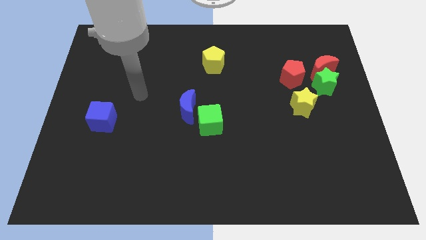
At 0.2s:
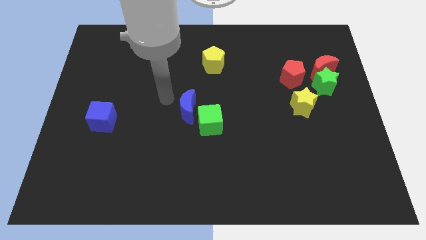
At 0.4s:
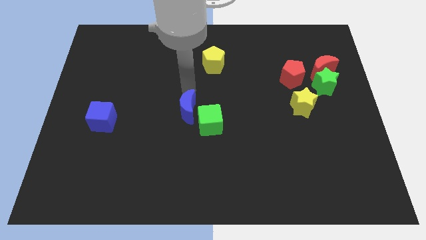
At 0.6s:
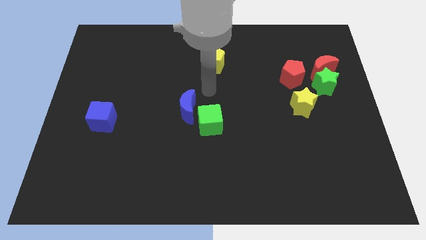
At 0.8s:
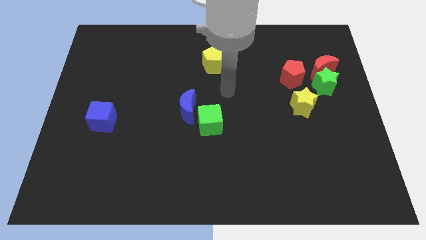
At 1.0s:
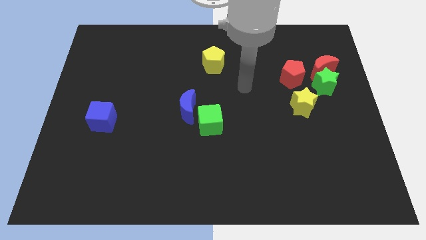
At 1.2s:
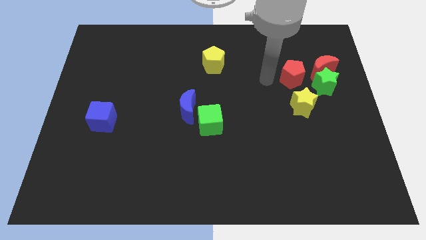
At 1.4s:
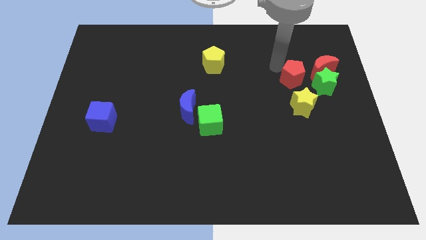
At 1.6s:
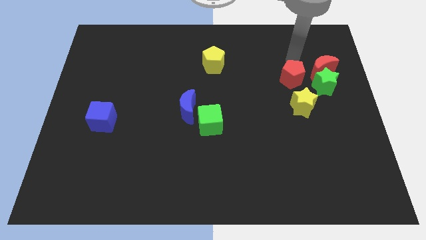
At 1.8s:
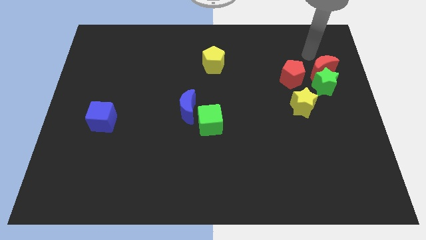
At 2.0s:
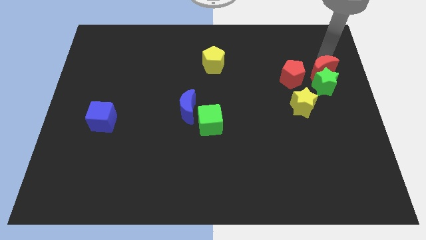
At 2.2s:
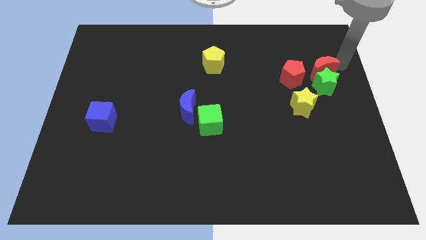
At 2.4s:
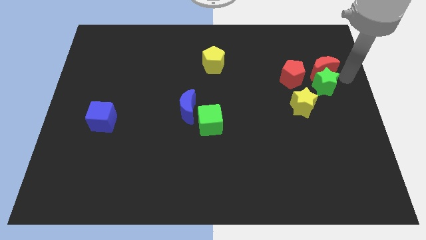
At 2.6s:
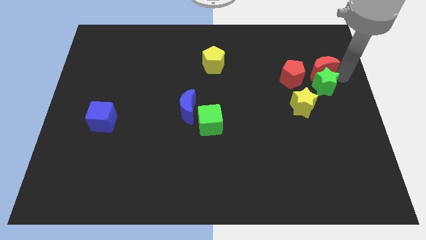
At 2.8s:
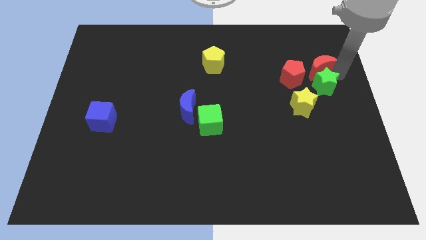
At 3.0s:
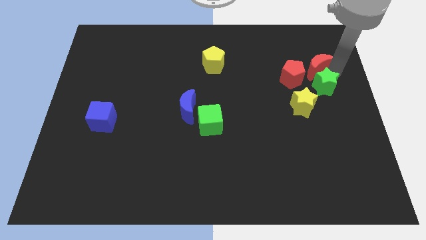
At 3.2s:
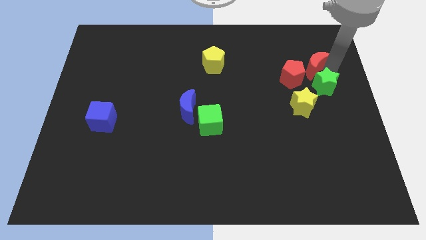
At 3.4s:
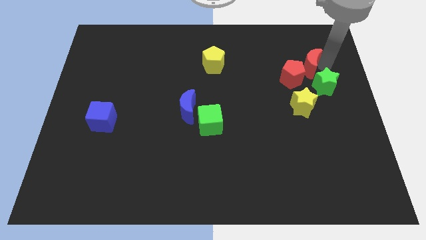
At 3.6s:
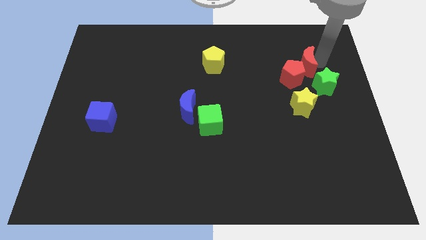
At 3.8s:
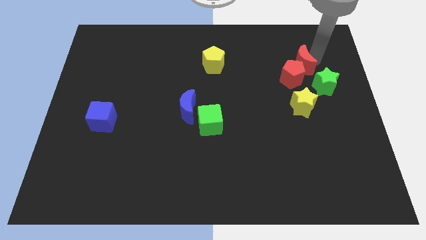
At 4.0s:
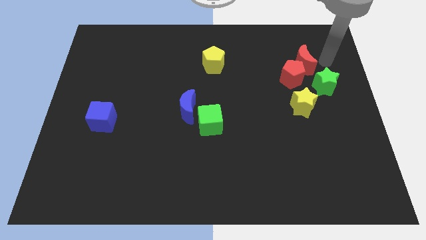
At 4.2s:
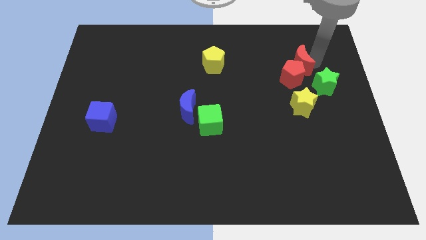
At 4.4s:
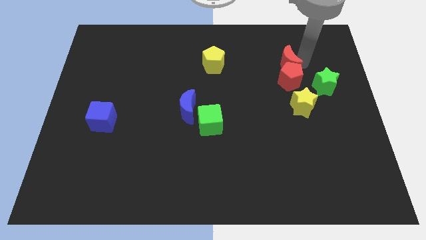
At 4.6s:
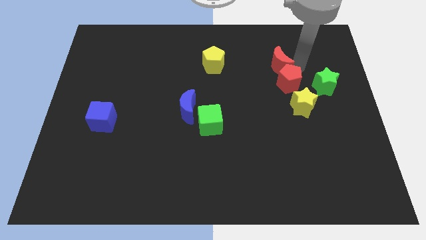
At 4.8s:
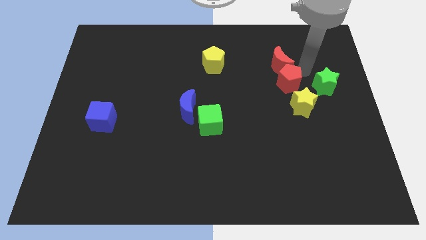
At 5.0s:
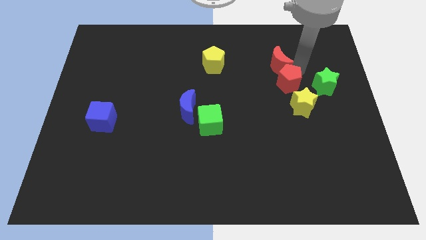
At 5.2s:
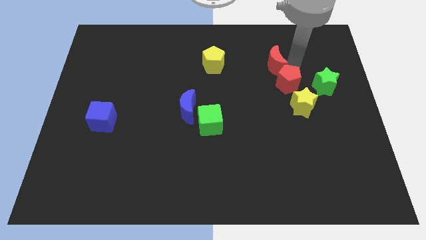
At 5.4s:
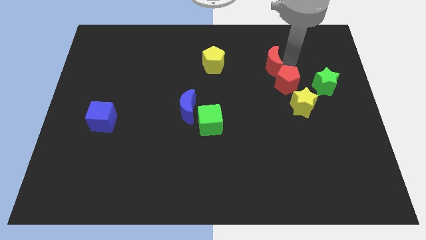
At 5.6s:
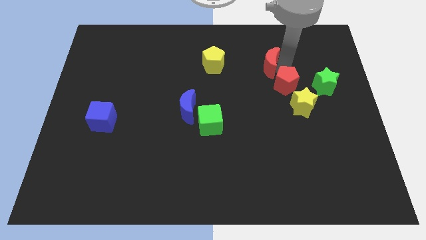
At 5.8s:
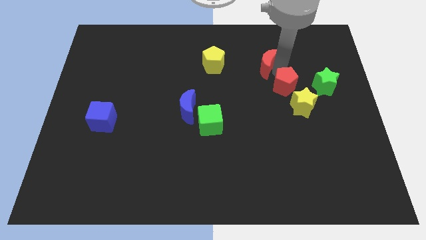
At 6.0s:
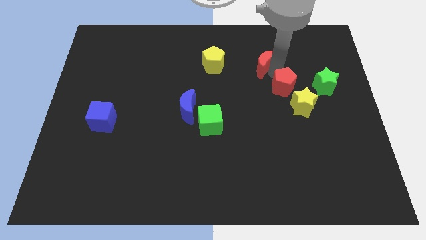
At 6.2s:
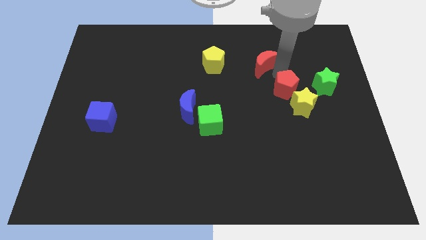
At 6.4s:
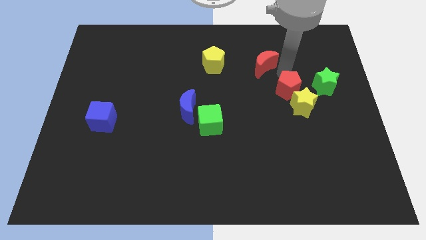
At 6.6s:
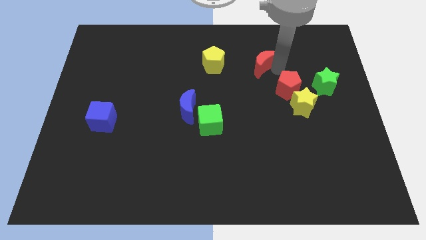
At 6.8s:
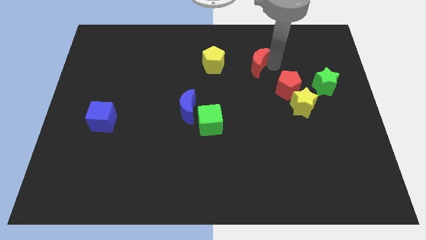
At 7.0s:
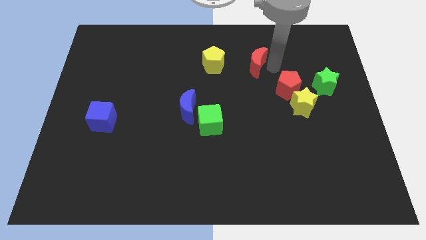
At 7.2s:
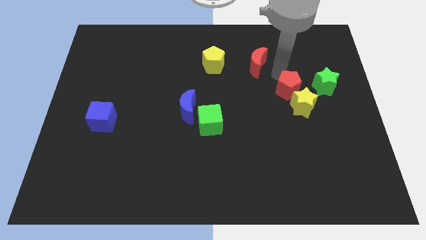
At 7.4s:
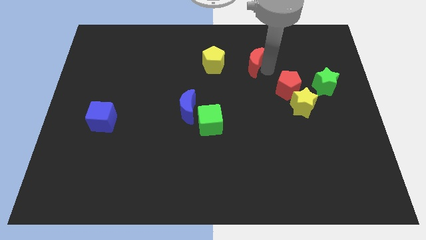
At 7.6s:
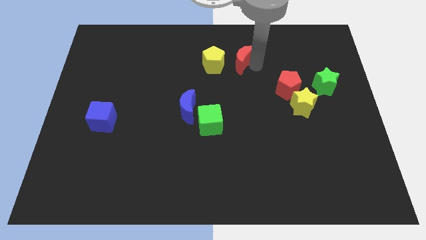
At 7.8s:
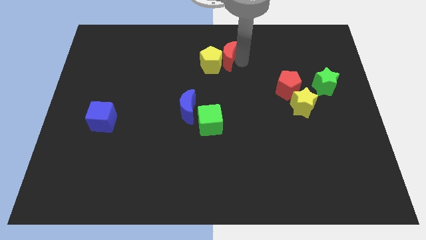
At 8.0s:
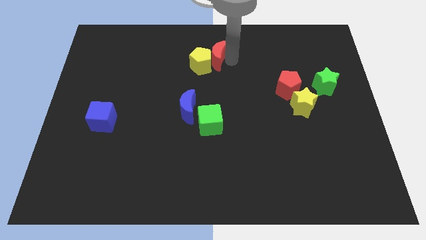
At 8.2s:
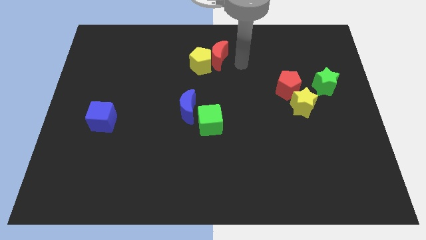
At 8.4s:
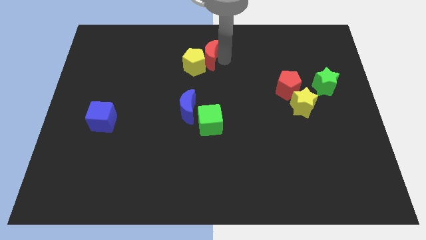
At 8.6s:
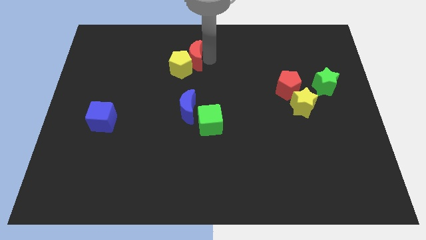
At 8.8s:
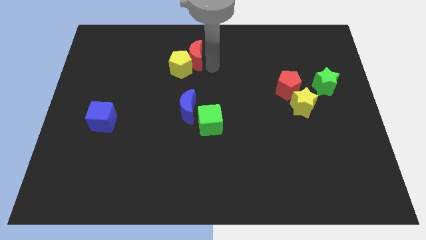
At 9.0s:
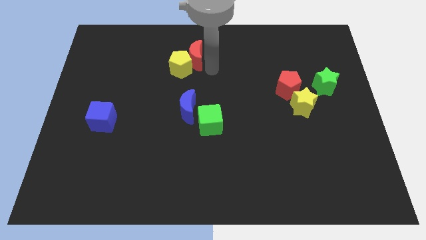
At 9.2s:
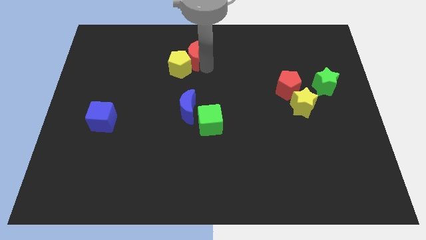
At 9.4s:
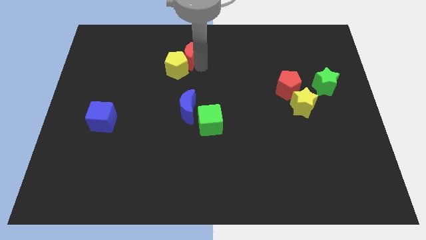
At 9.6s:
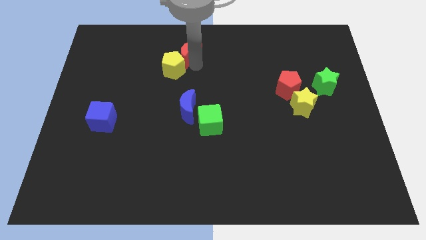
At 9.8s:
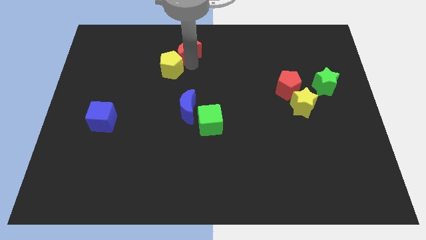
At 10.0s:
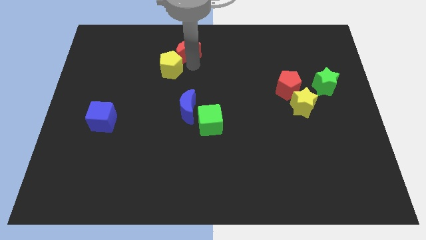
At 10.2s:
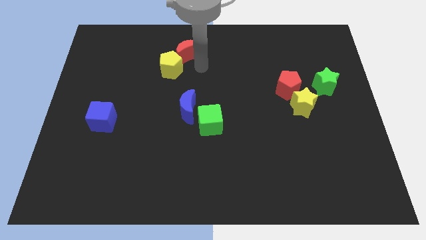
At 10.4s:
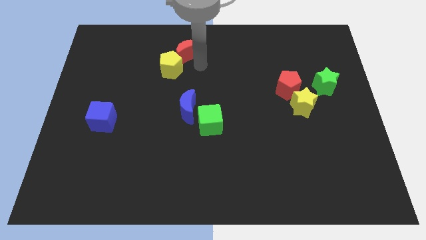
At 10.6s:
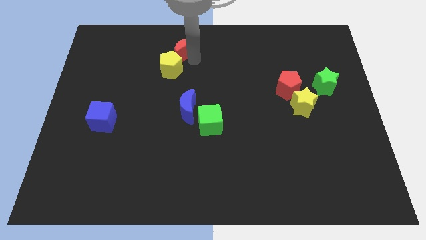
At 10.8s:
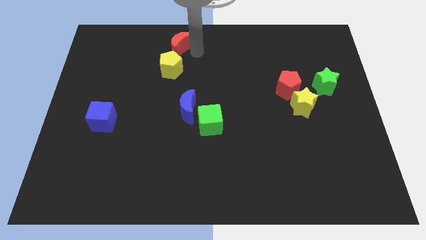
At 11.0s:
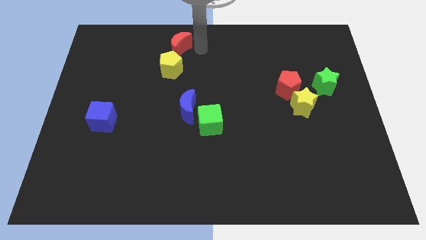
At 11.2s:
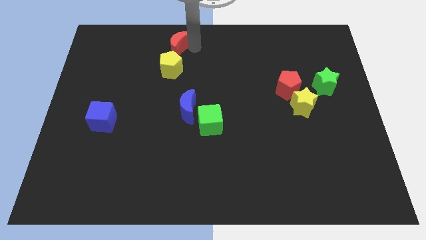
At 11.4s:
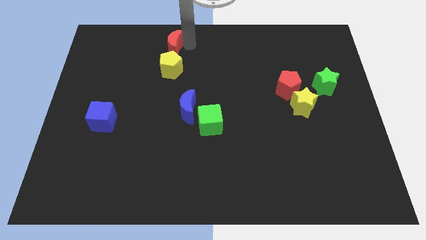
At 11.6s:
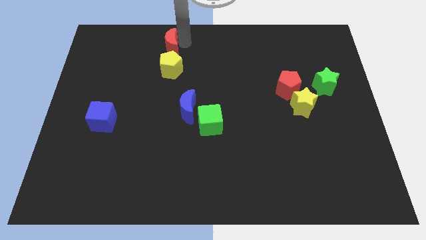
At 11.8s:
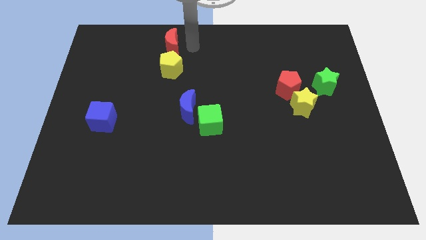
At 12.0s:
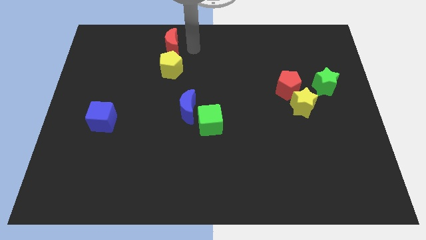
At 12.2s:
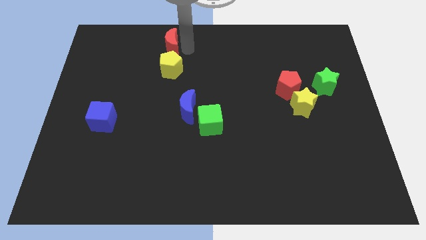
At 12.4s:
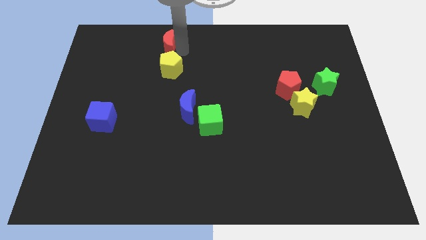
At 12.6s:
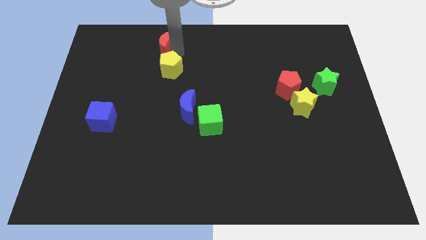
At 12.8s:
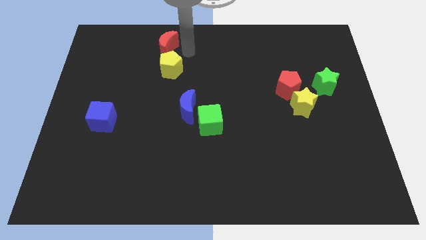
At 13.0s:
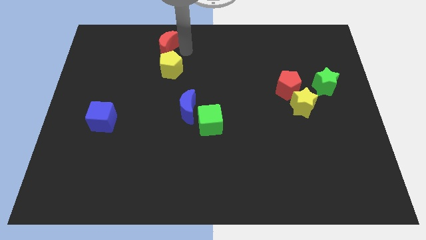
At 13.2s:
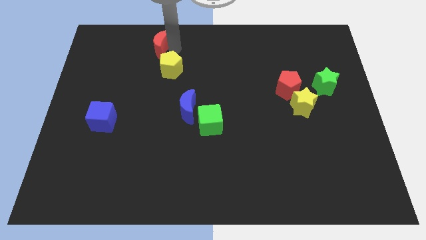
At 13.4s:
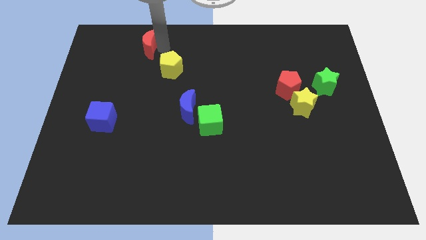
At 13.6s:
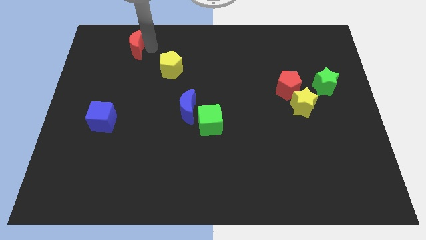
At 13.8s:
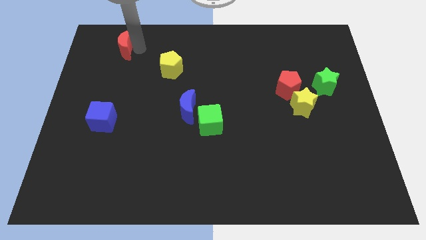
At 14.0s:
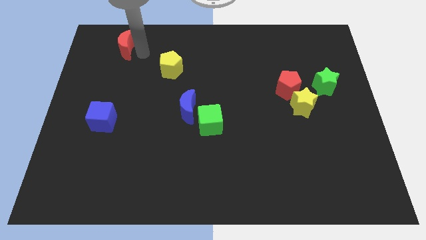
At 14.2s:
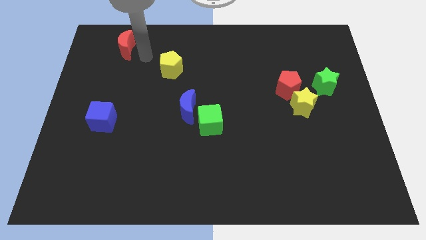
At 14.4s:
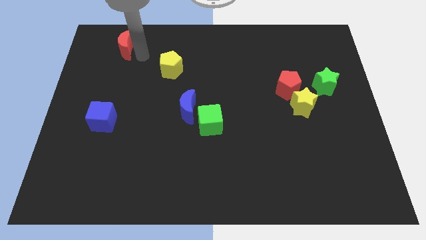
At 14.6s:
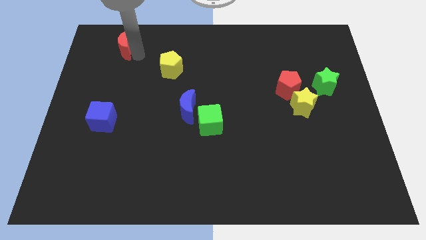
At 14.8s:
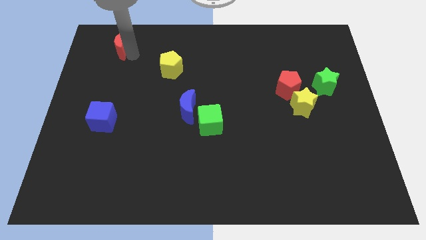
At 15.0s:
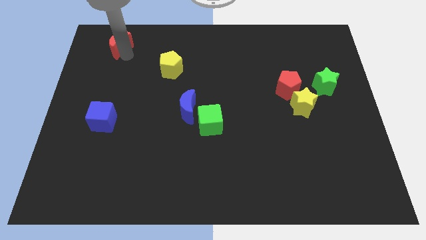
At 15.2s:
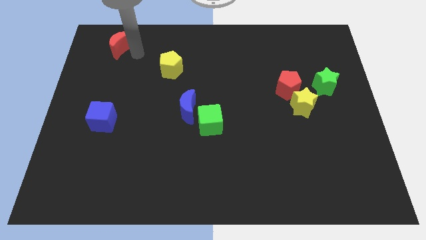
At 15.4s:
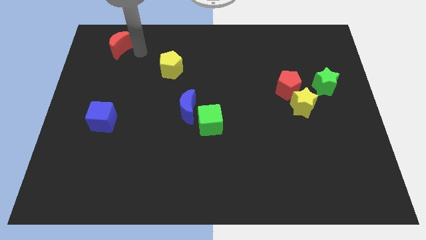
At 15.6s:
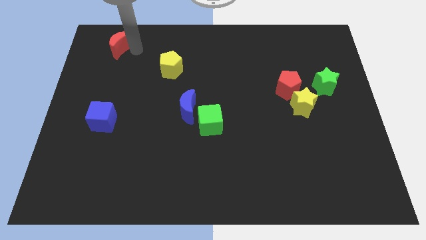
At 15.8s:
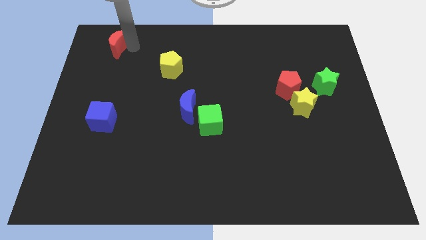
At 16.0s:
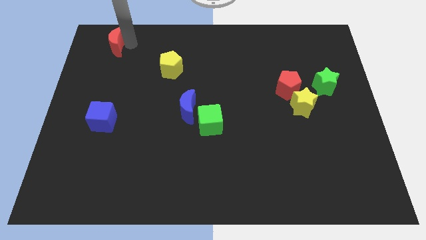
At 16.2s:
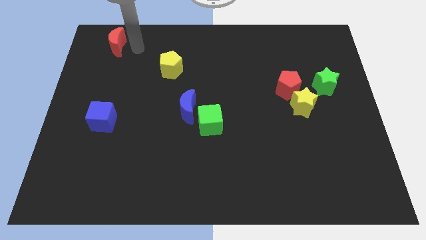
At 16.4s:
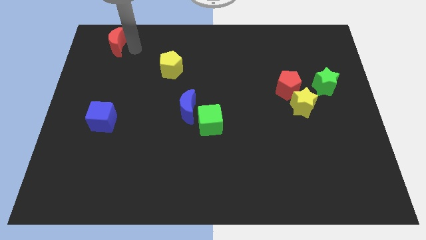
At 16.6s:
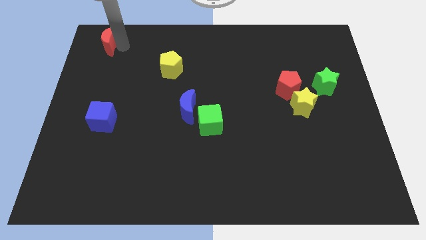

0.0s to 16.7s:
slide the red moon to the top left of the board
